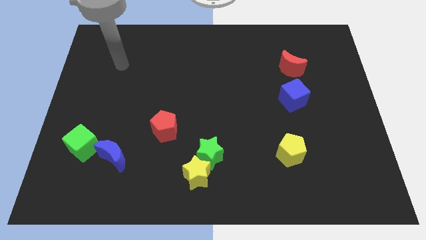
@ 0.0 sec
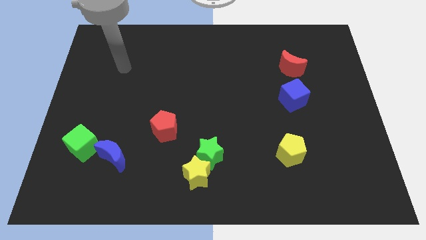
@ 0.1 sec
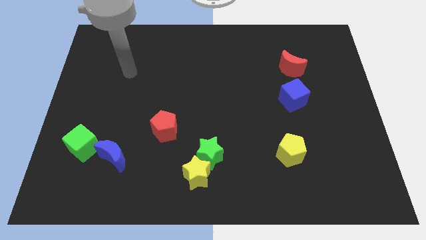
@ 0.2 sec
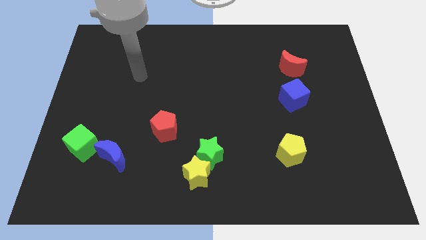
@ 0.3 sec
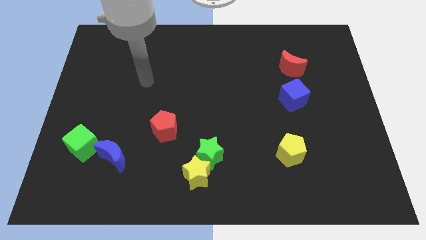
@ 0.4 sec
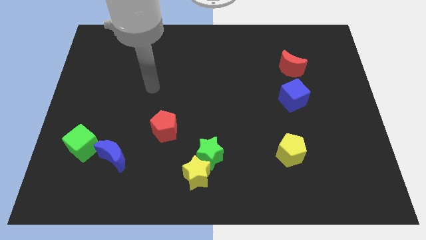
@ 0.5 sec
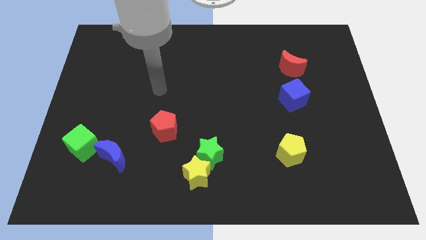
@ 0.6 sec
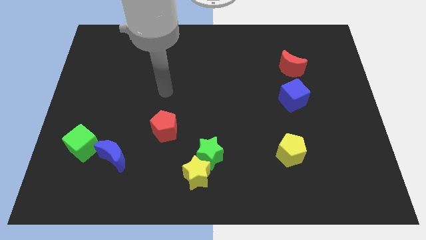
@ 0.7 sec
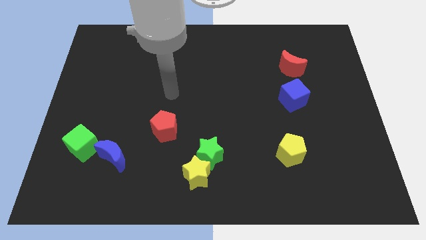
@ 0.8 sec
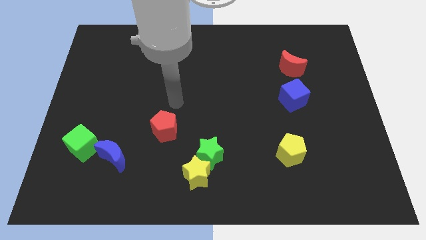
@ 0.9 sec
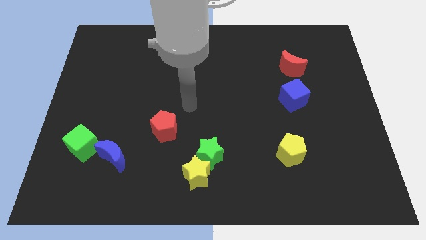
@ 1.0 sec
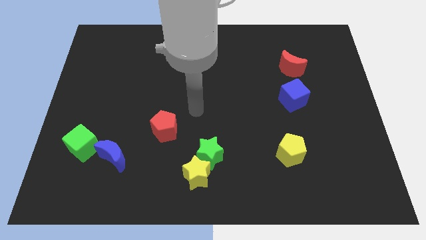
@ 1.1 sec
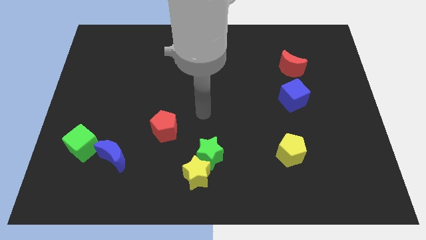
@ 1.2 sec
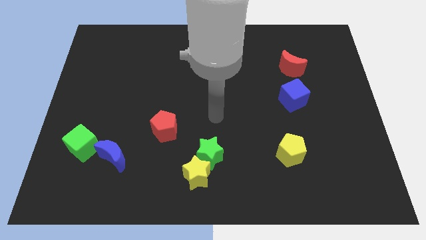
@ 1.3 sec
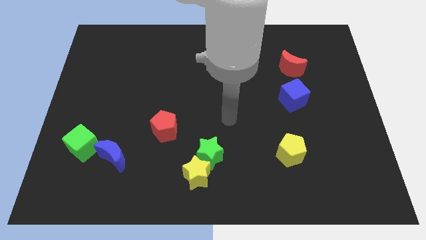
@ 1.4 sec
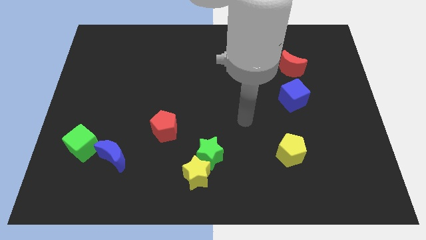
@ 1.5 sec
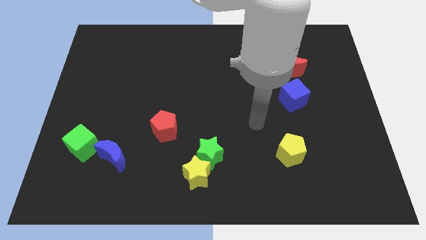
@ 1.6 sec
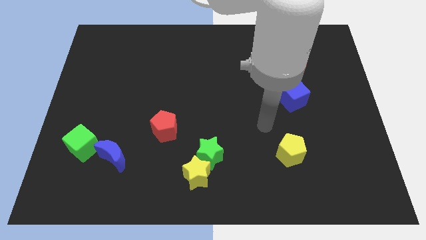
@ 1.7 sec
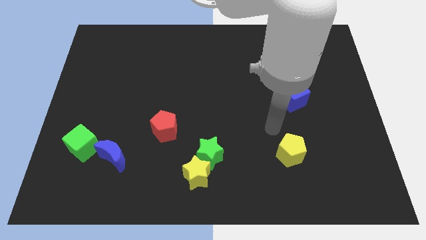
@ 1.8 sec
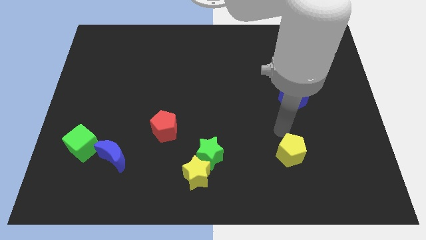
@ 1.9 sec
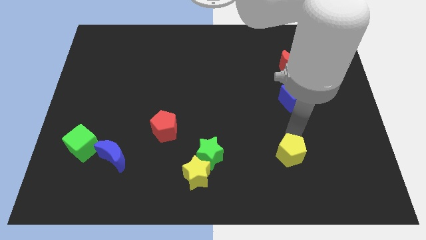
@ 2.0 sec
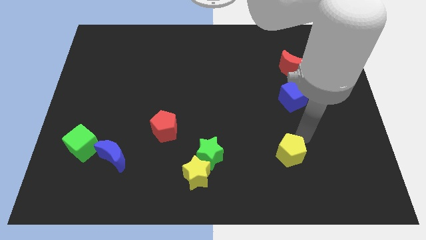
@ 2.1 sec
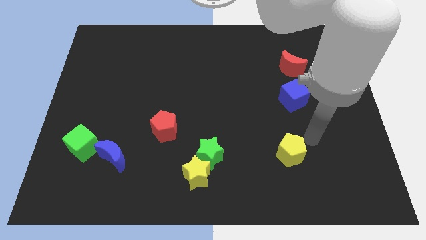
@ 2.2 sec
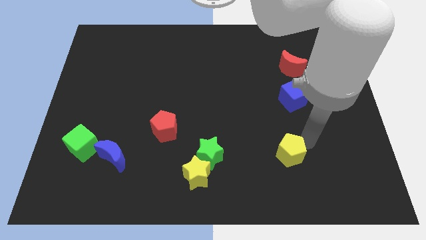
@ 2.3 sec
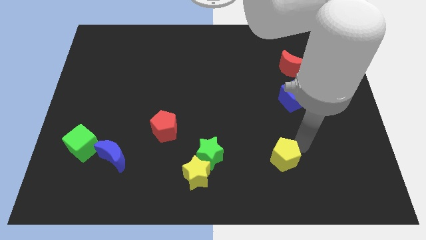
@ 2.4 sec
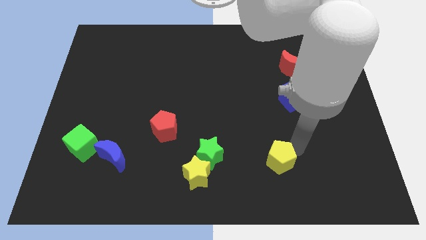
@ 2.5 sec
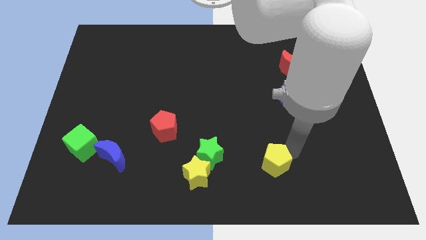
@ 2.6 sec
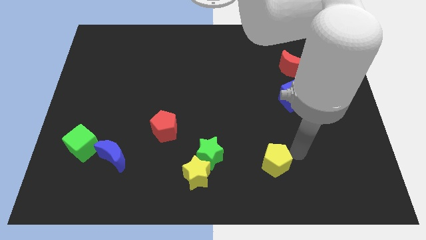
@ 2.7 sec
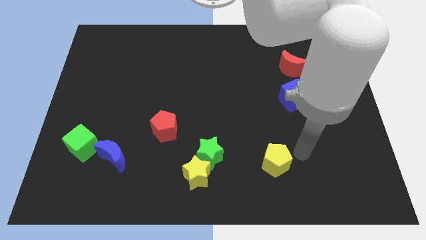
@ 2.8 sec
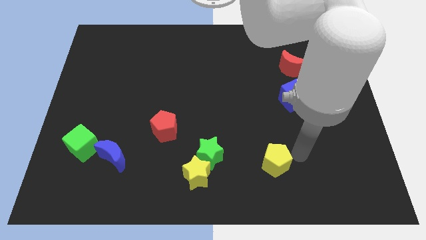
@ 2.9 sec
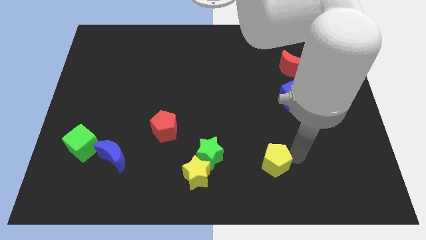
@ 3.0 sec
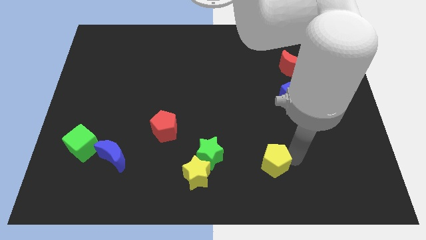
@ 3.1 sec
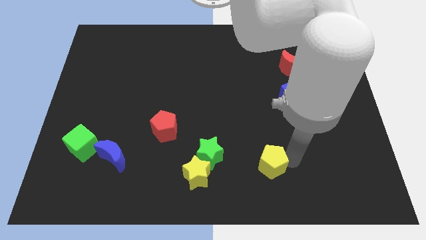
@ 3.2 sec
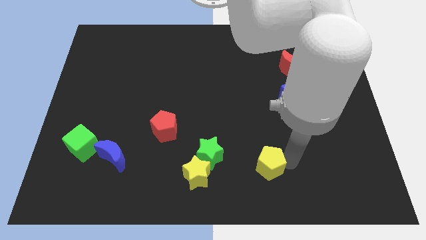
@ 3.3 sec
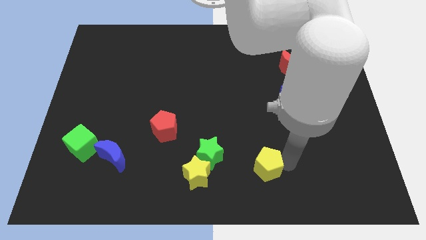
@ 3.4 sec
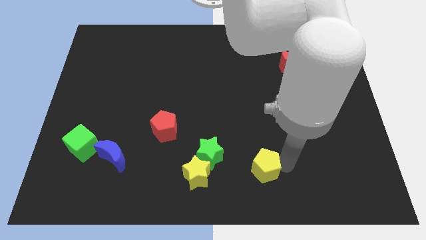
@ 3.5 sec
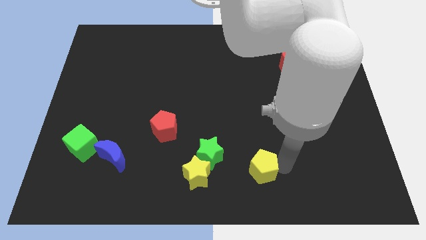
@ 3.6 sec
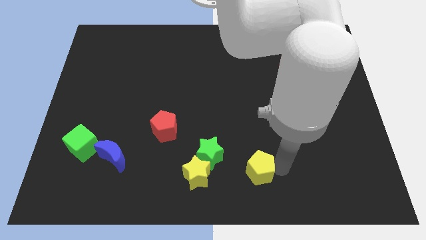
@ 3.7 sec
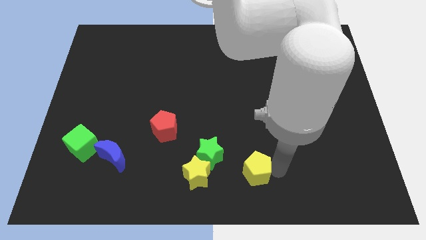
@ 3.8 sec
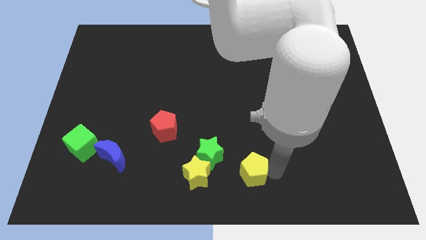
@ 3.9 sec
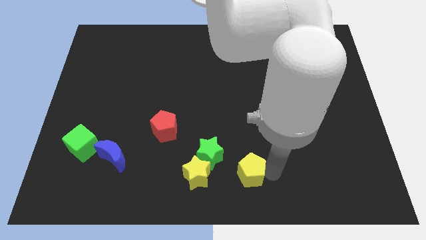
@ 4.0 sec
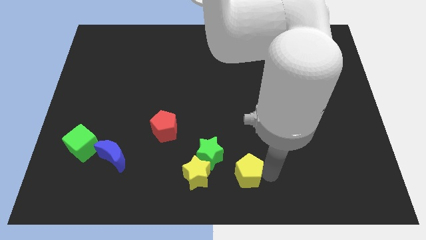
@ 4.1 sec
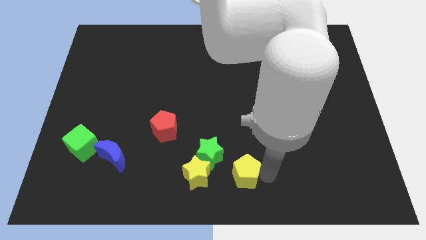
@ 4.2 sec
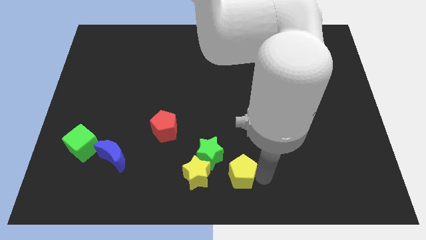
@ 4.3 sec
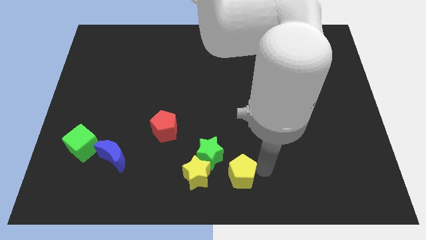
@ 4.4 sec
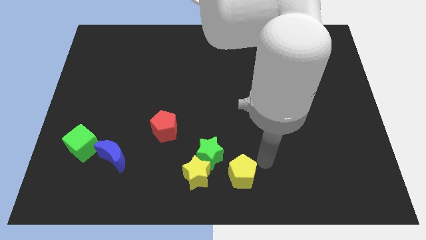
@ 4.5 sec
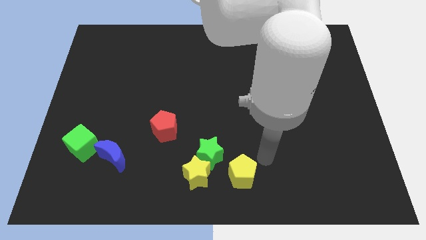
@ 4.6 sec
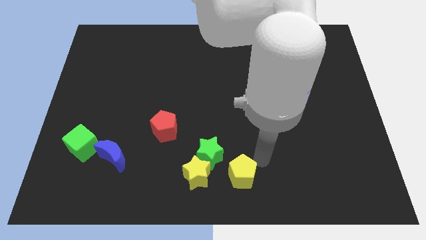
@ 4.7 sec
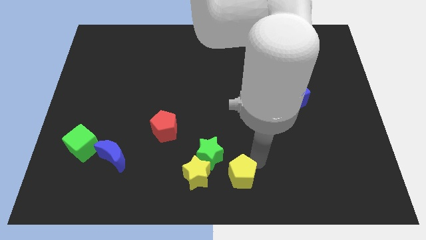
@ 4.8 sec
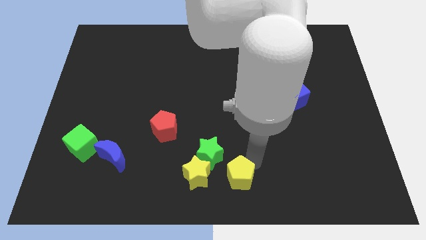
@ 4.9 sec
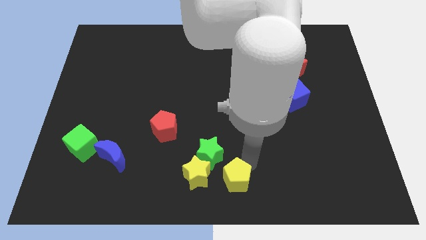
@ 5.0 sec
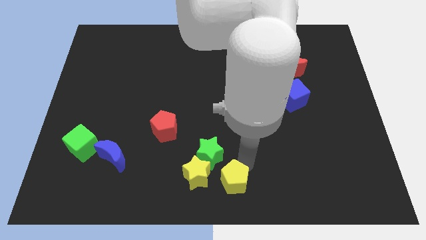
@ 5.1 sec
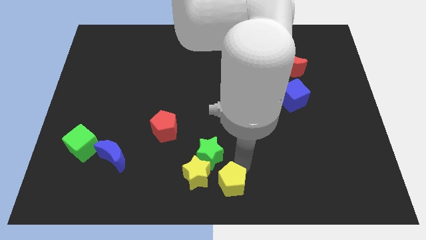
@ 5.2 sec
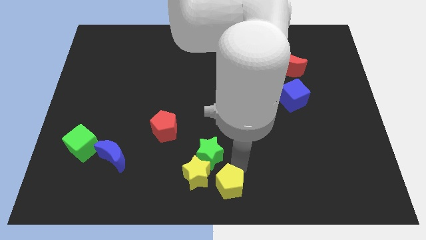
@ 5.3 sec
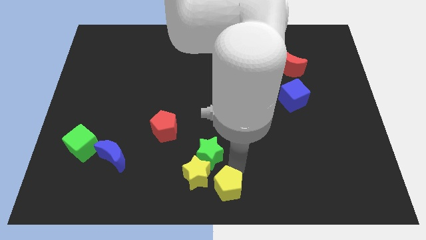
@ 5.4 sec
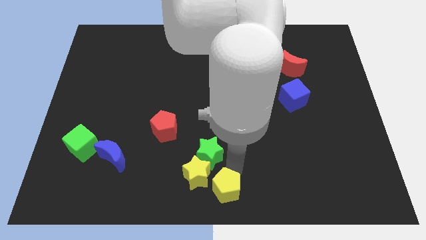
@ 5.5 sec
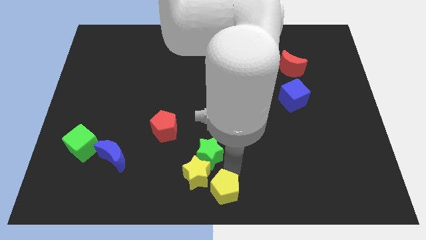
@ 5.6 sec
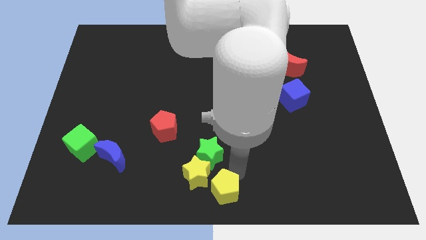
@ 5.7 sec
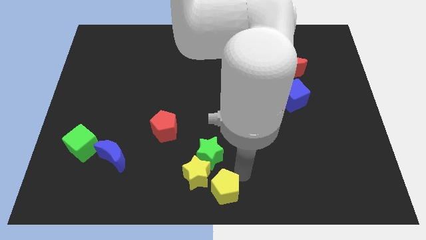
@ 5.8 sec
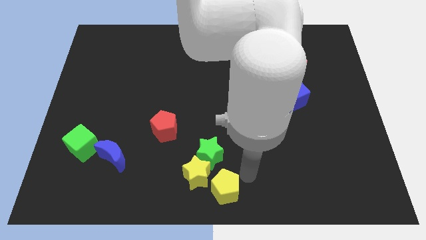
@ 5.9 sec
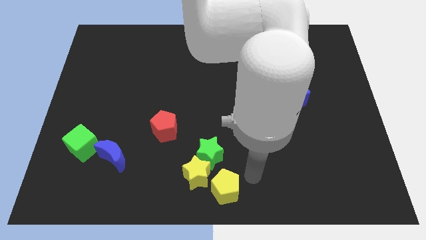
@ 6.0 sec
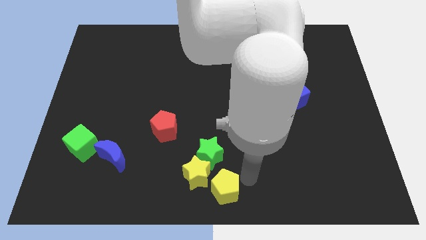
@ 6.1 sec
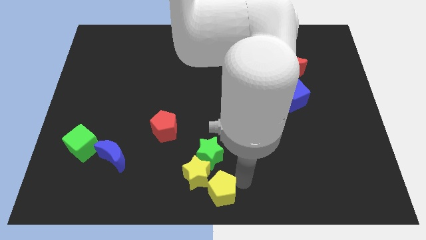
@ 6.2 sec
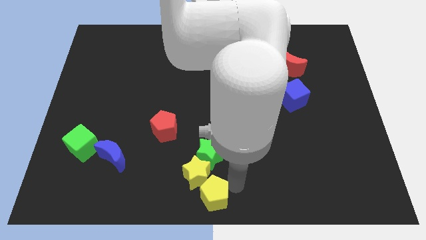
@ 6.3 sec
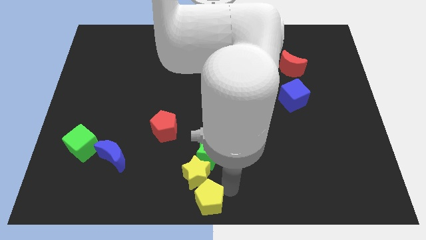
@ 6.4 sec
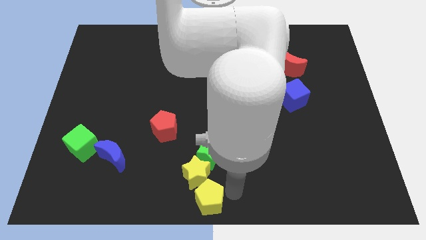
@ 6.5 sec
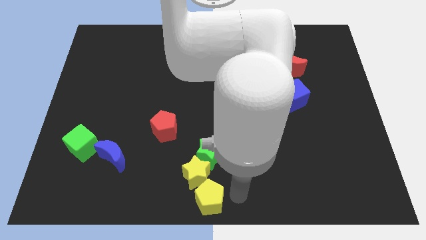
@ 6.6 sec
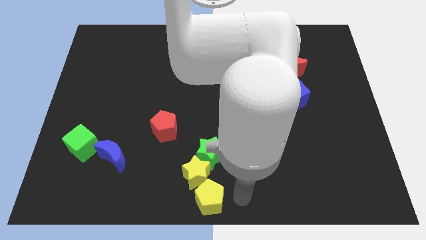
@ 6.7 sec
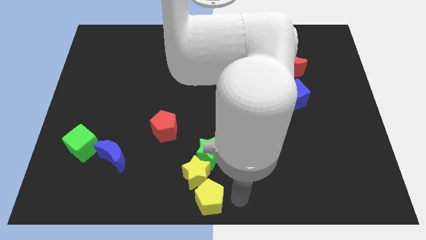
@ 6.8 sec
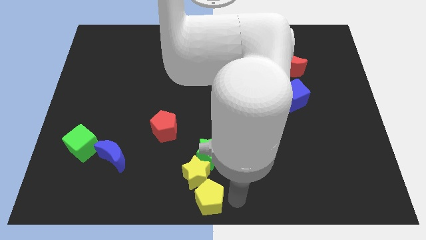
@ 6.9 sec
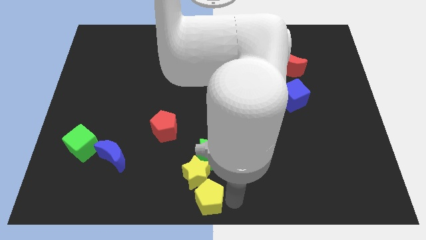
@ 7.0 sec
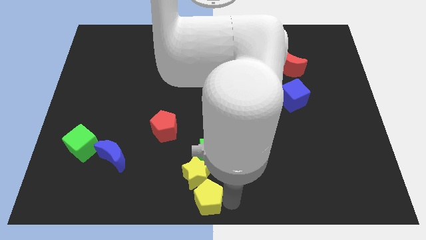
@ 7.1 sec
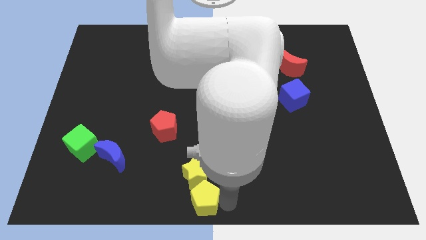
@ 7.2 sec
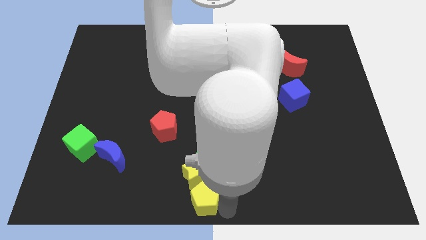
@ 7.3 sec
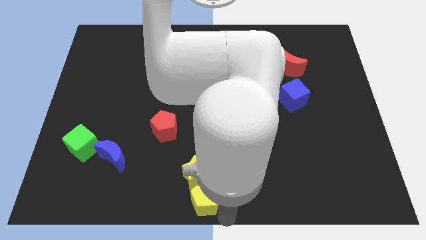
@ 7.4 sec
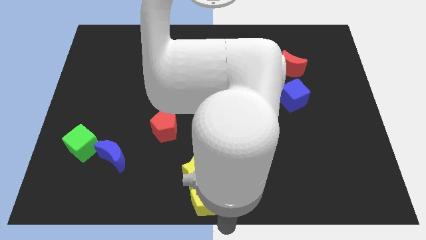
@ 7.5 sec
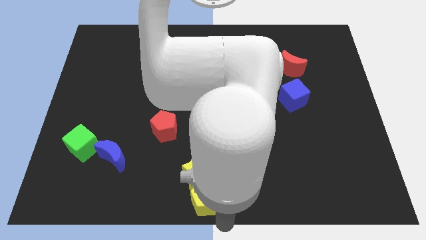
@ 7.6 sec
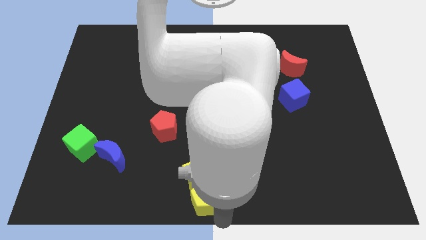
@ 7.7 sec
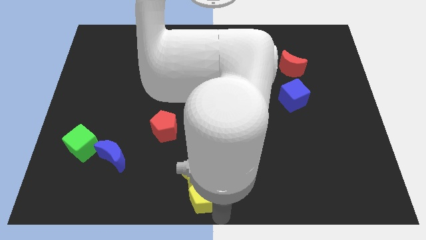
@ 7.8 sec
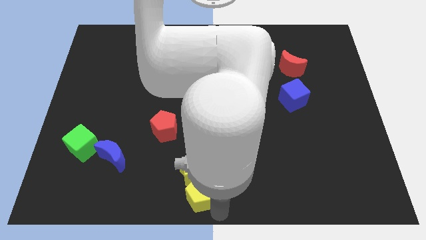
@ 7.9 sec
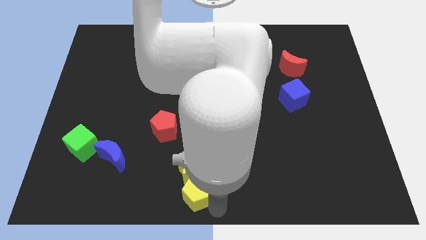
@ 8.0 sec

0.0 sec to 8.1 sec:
slide the yellow pentagon diagonally down and to the left of the green star
